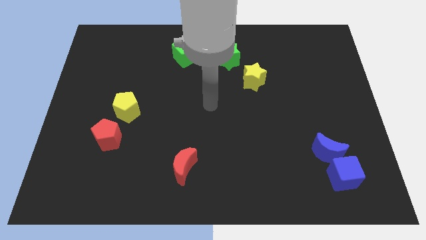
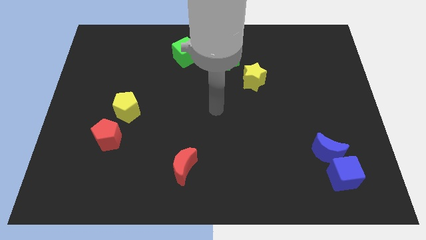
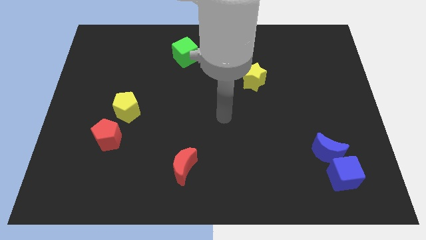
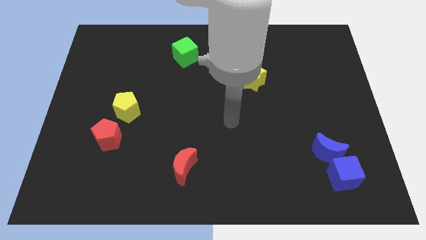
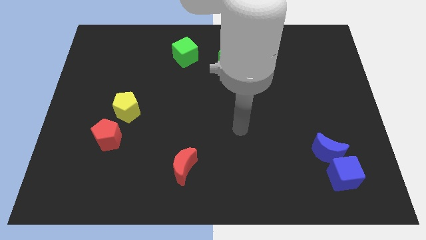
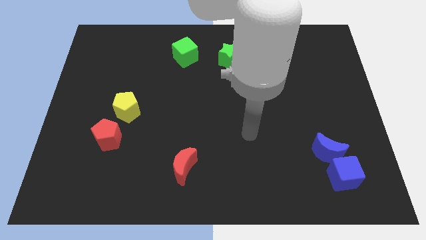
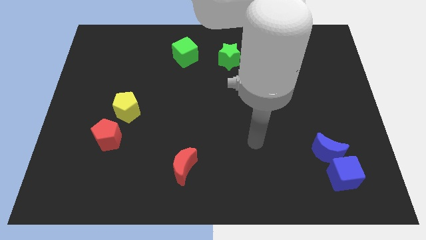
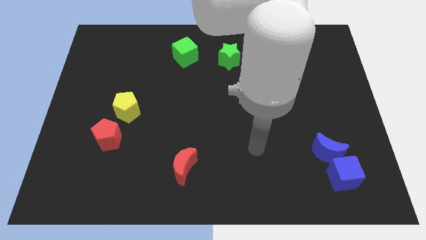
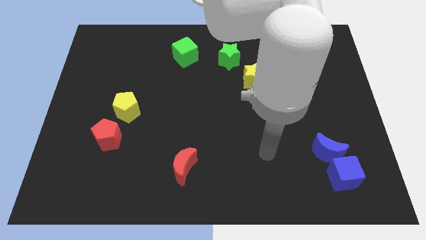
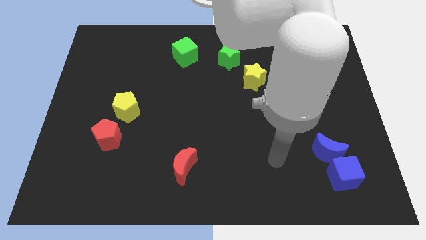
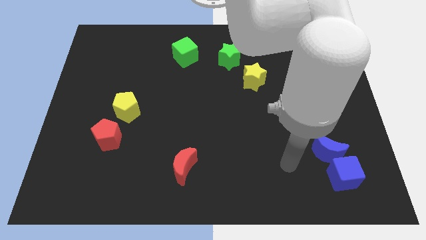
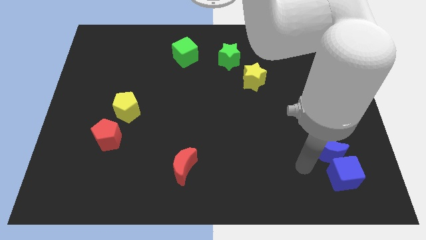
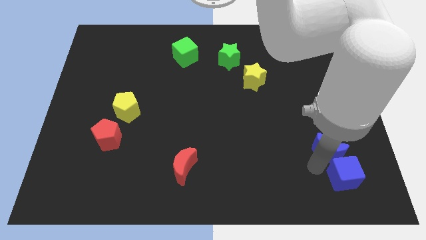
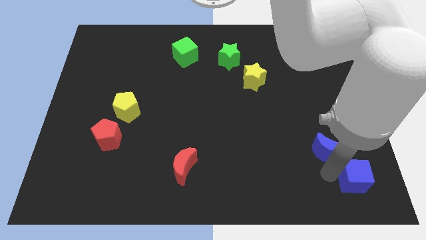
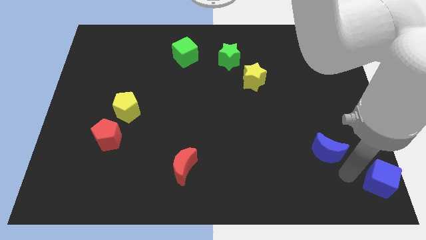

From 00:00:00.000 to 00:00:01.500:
separate the blue moon from the blue cube

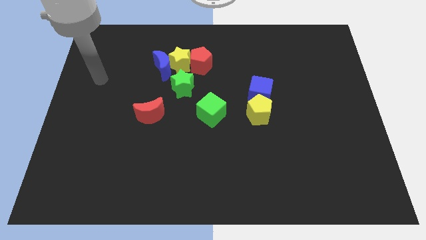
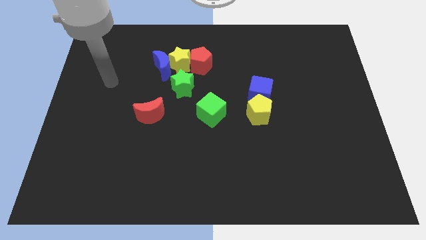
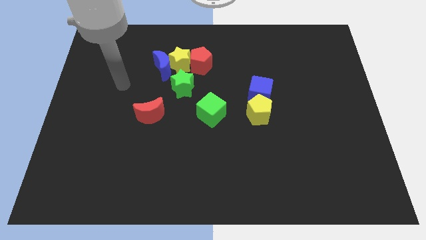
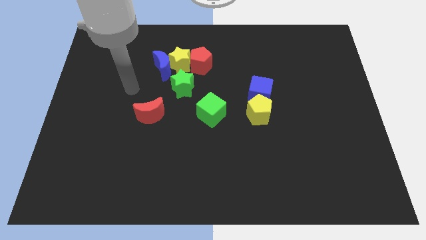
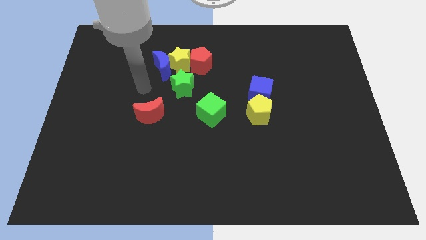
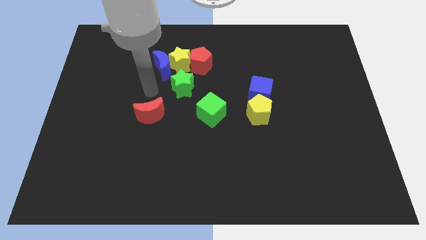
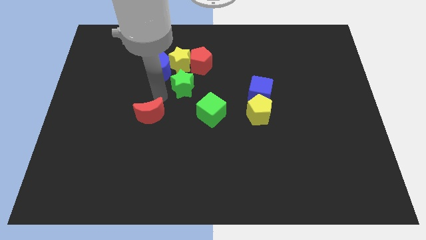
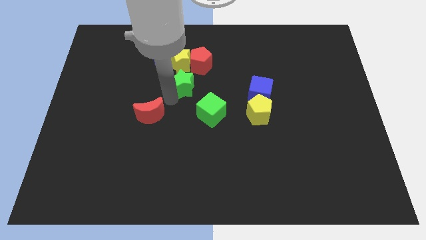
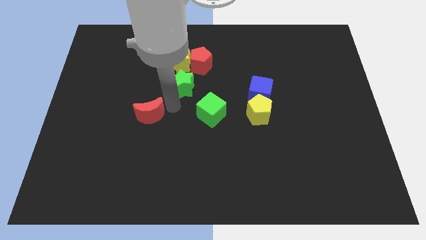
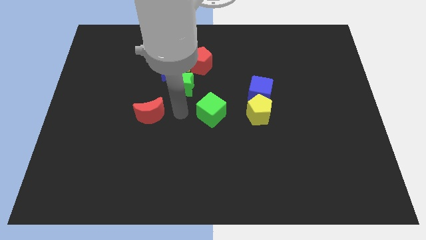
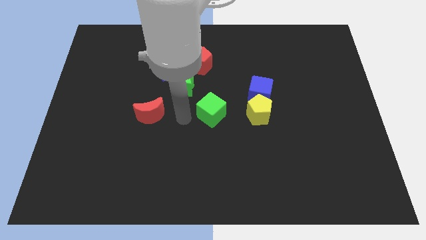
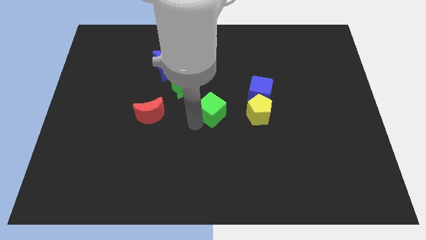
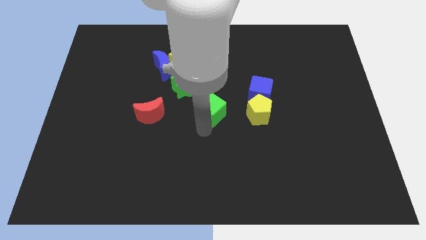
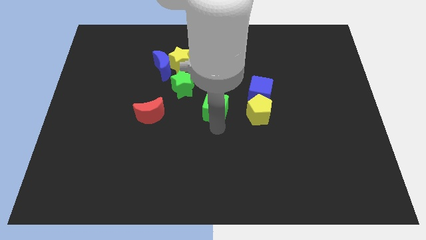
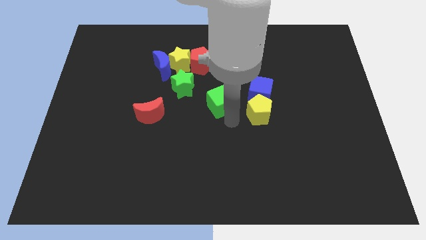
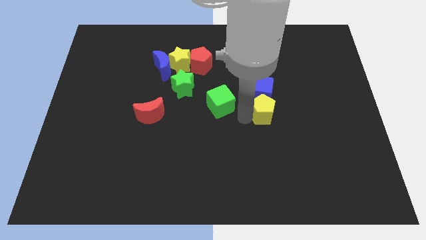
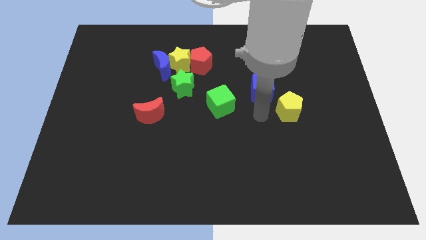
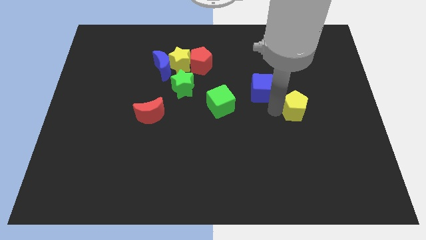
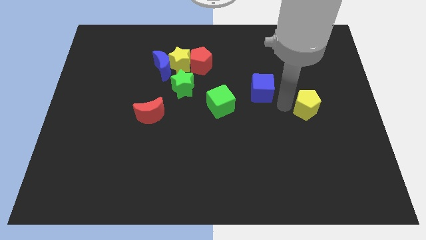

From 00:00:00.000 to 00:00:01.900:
pull the blue cube apart from the yellow pentagon

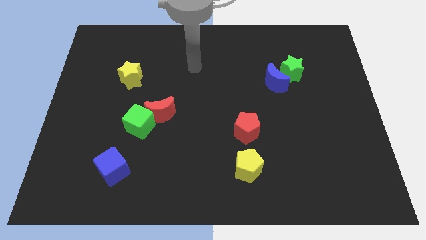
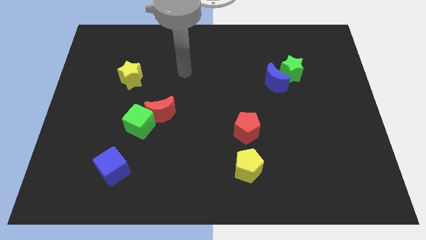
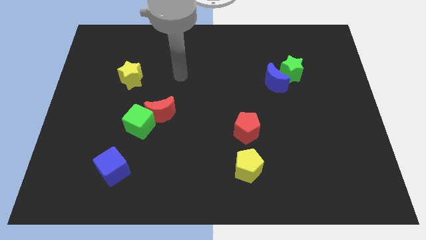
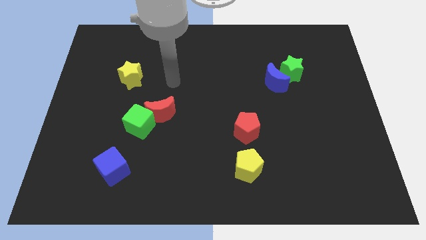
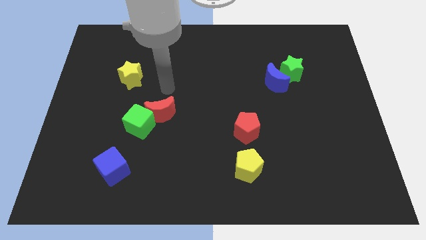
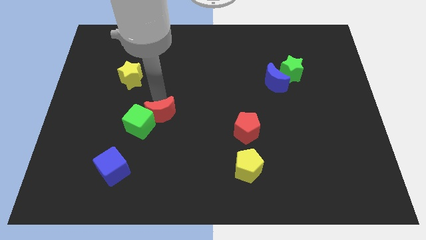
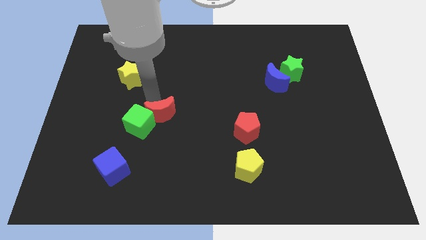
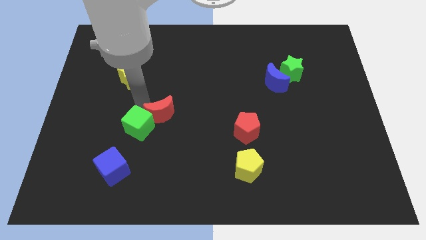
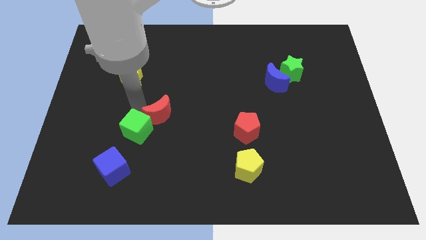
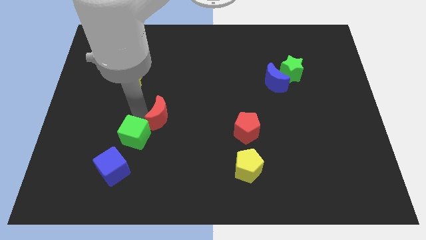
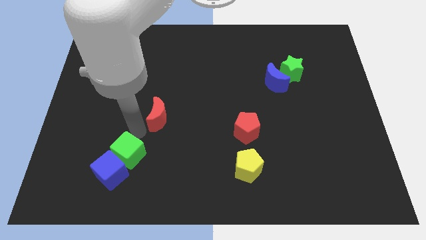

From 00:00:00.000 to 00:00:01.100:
separate the red moon from the green cube

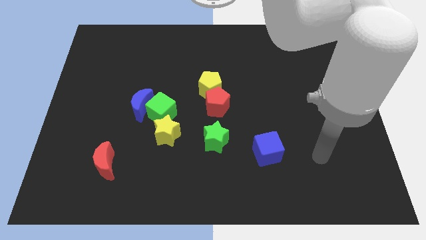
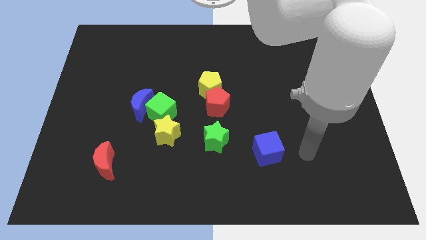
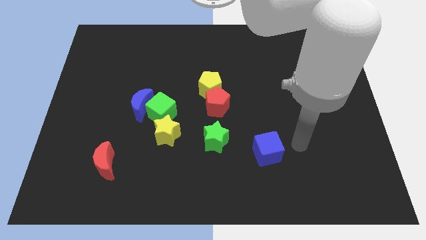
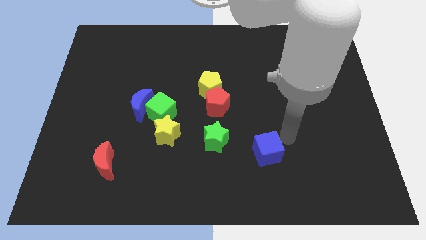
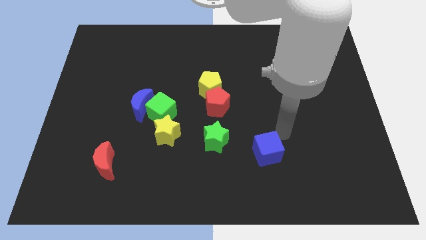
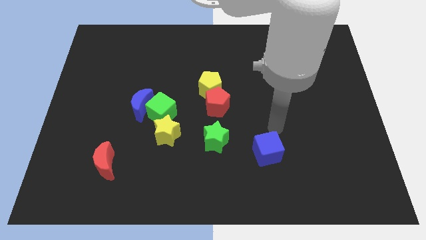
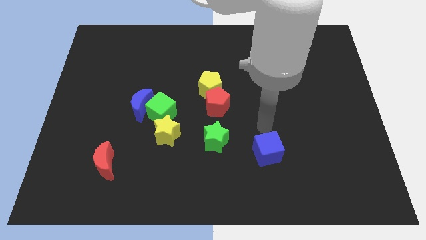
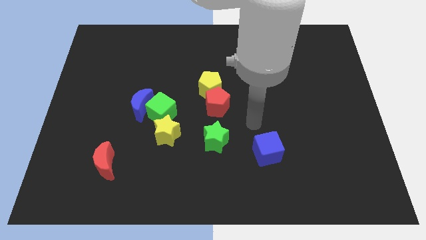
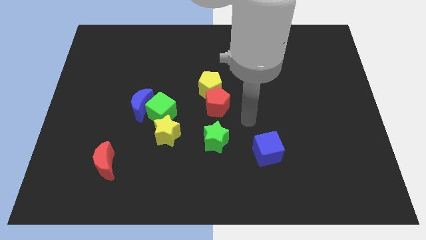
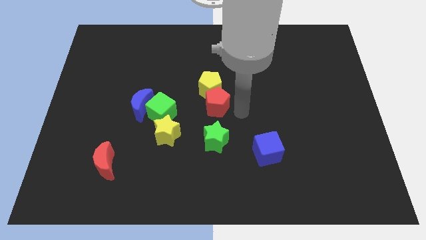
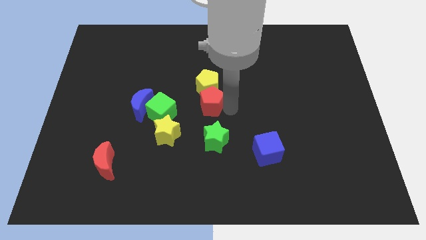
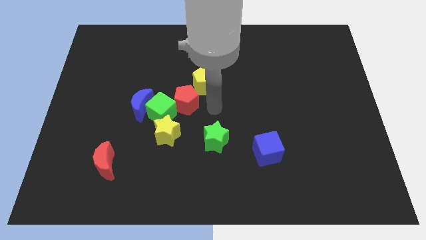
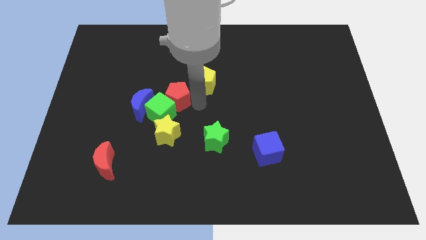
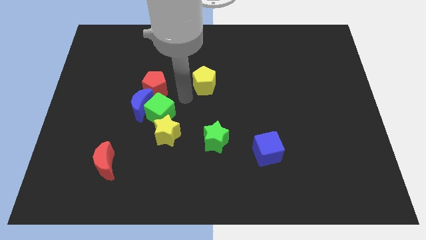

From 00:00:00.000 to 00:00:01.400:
pull the yellow pentagon apart from the red pentagon

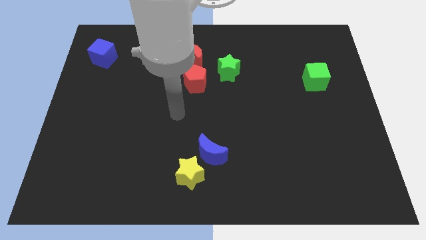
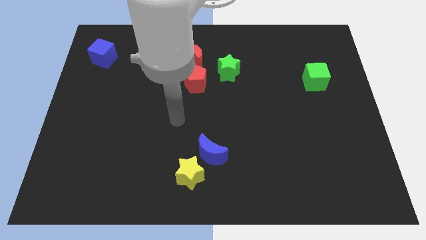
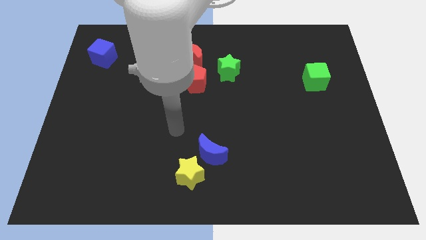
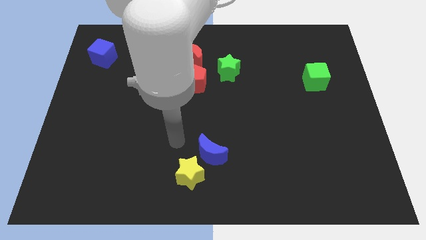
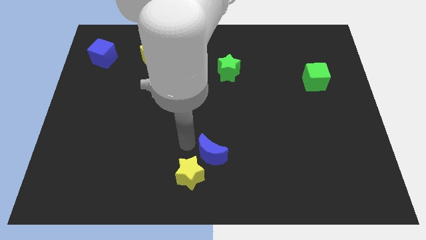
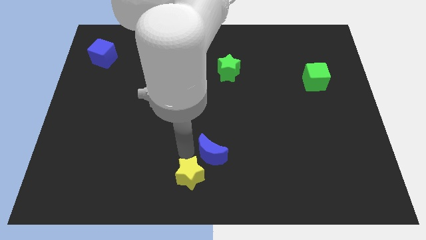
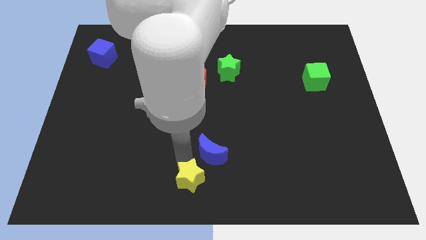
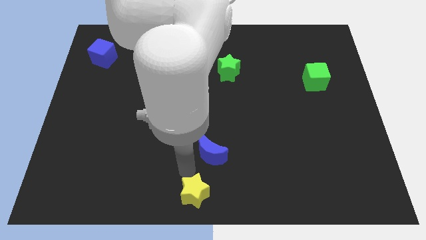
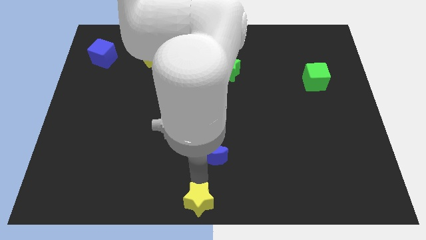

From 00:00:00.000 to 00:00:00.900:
separate the blue moon from the yellow star

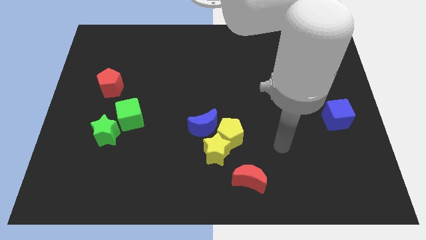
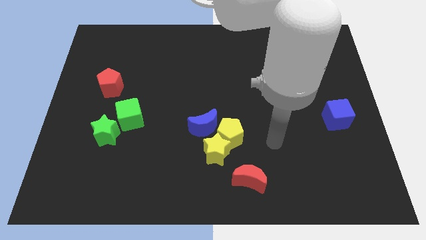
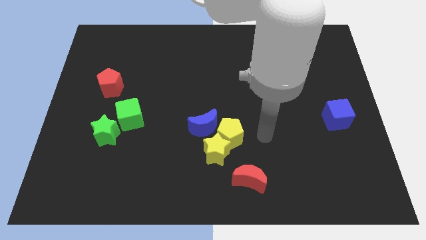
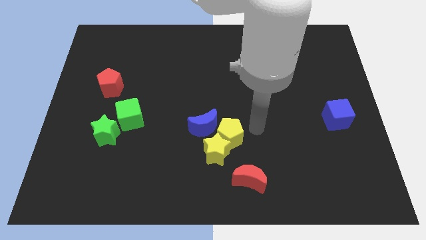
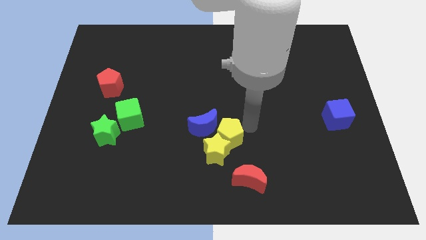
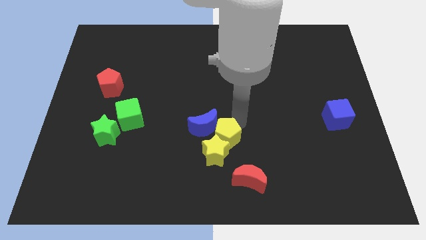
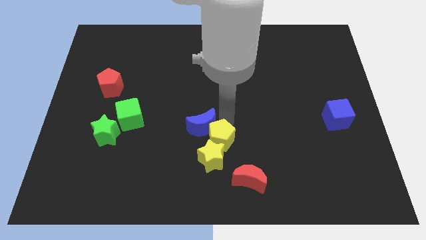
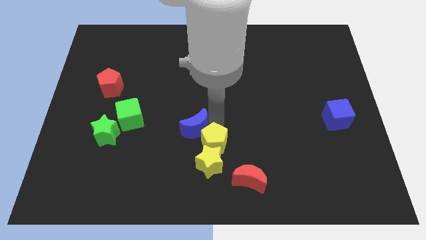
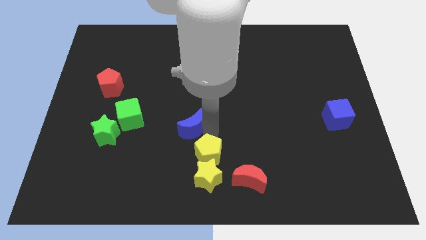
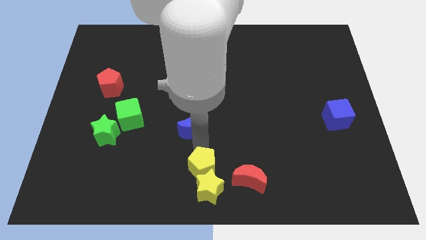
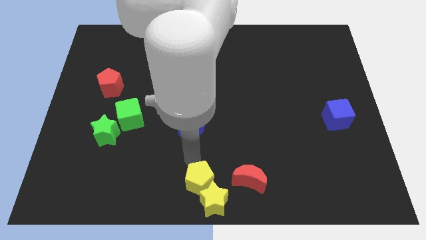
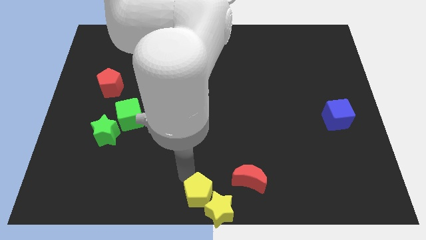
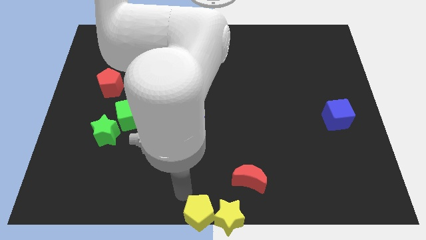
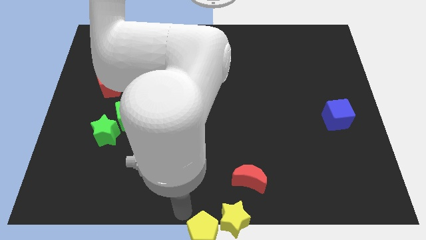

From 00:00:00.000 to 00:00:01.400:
pull the yellow pentagon apart from the yellow star and blue moon

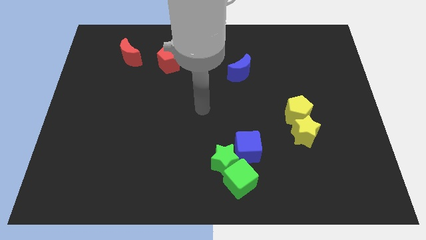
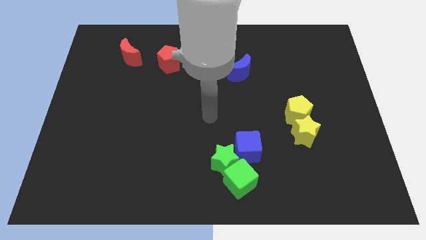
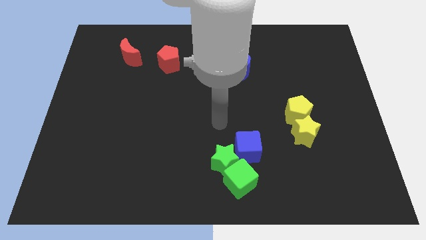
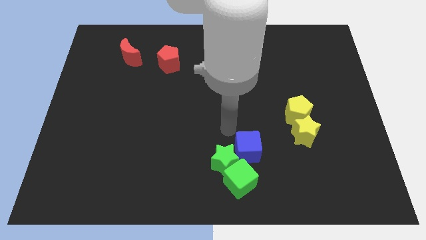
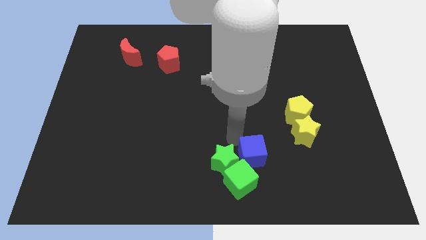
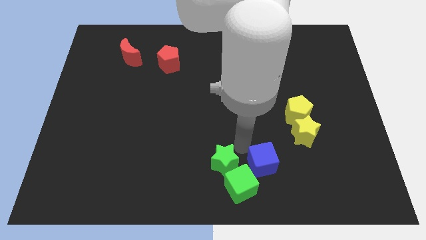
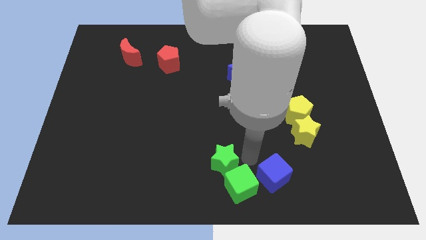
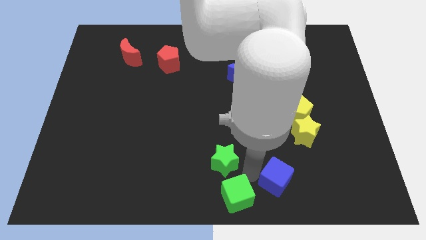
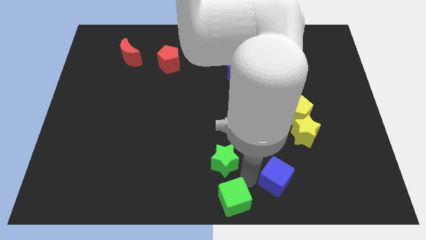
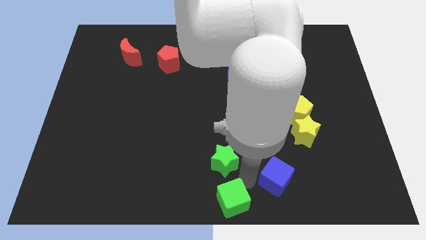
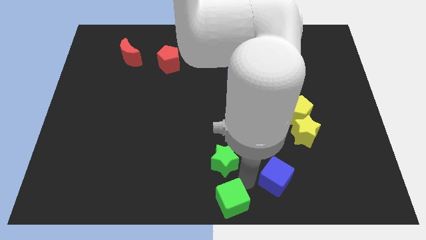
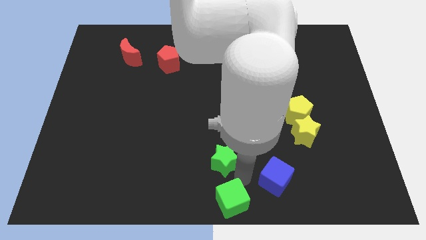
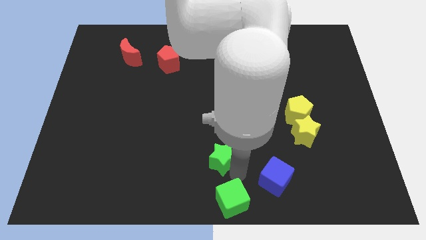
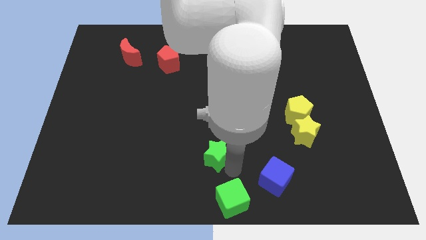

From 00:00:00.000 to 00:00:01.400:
separate the green star from the green cube and blue cube
